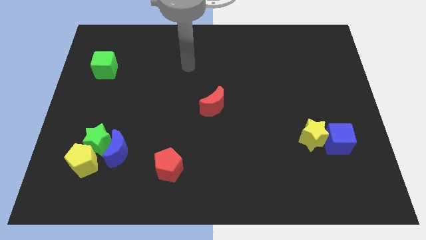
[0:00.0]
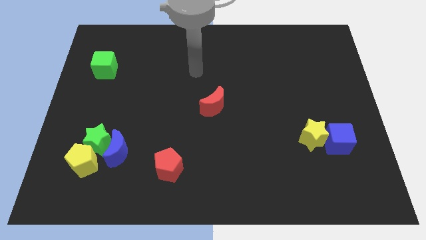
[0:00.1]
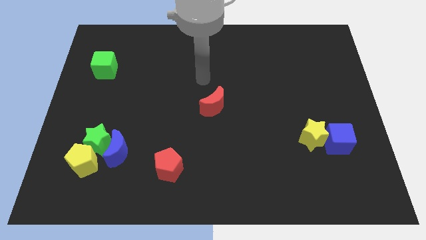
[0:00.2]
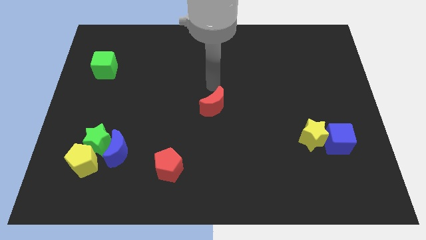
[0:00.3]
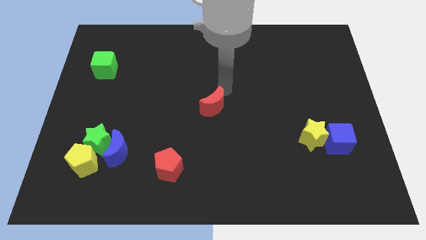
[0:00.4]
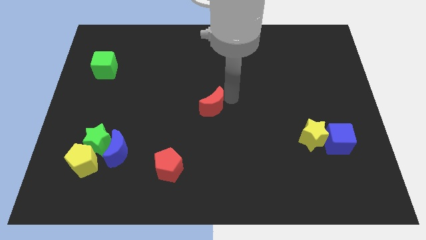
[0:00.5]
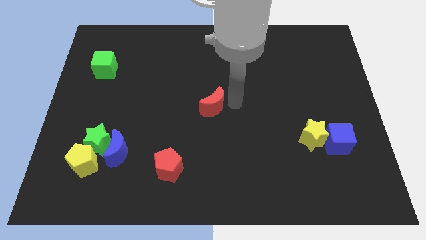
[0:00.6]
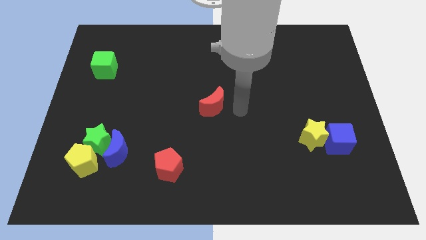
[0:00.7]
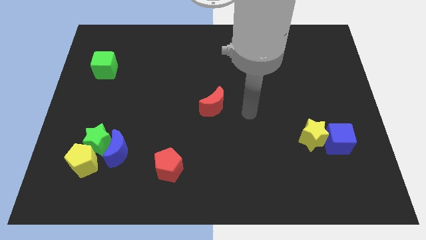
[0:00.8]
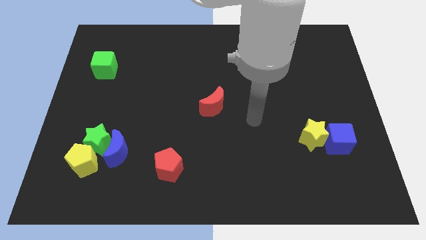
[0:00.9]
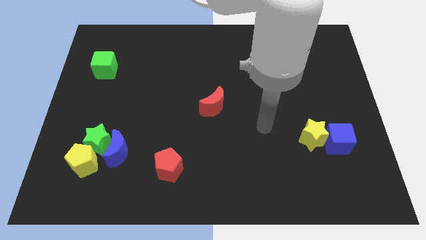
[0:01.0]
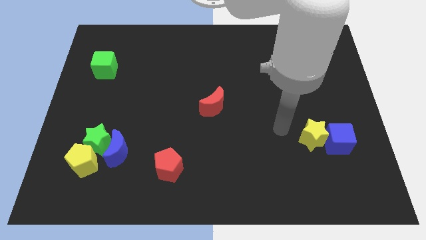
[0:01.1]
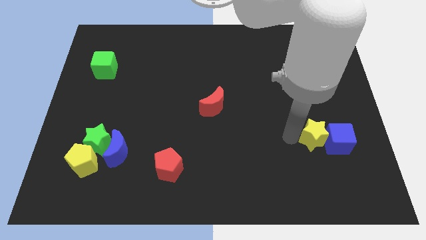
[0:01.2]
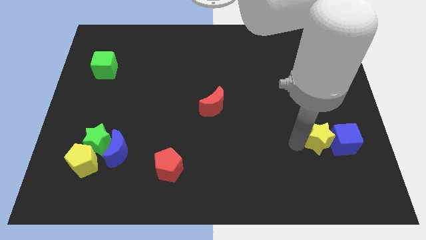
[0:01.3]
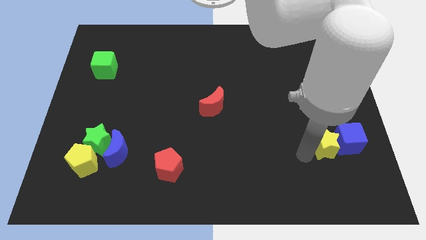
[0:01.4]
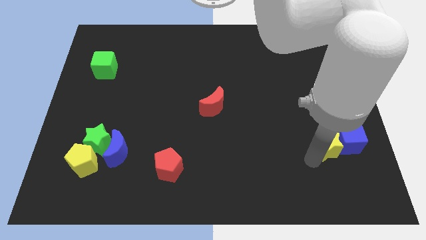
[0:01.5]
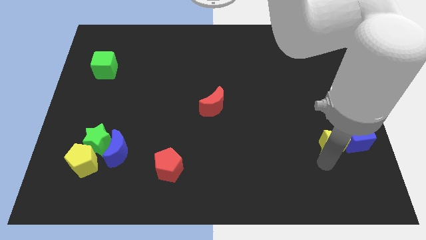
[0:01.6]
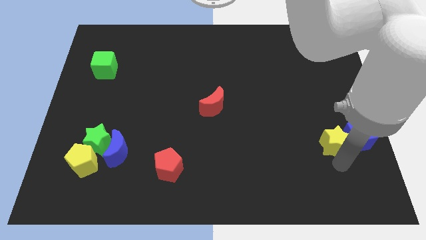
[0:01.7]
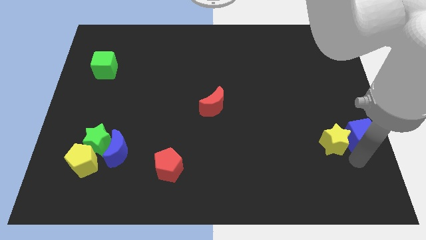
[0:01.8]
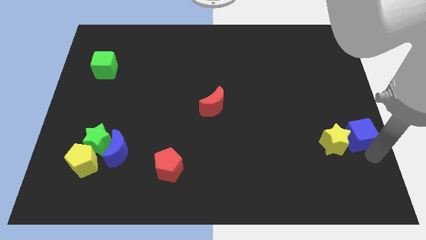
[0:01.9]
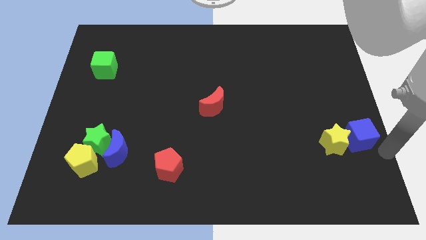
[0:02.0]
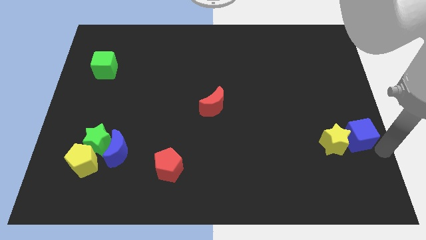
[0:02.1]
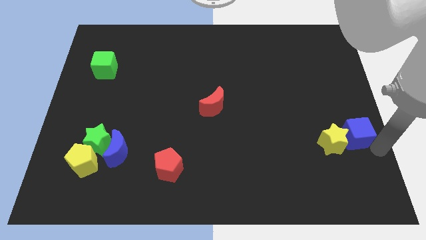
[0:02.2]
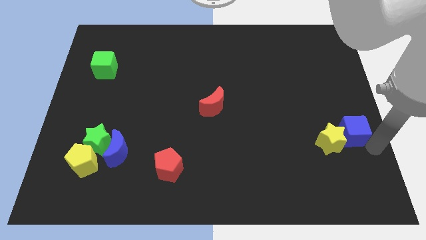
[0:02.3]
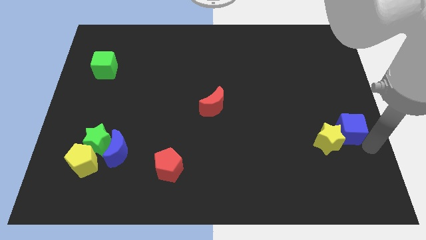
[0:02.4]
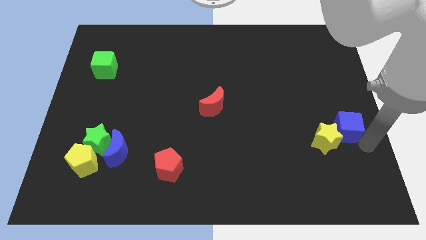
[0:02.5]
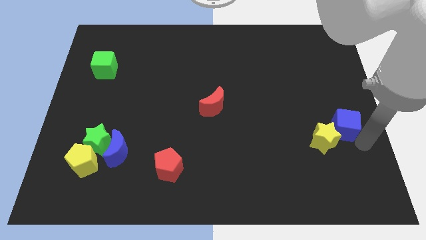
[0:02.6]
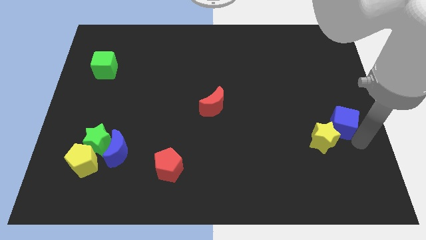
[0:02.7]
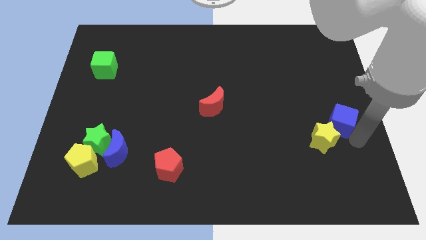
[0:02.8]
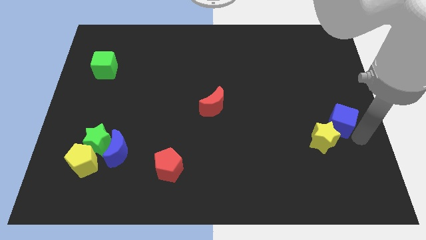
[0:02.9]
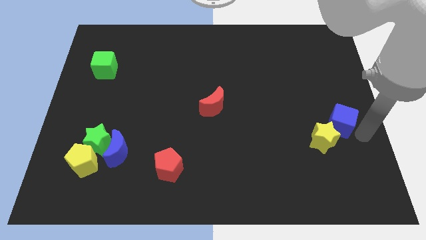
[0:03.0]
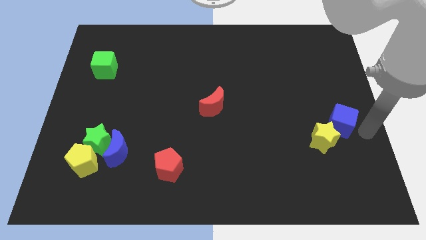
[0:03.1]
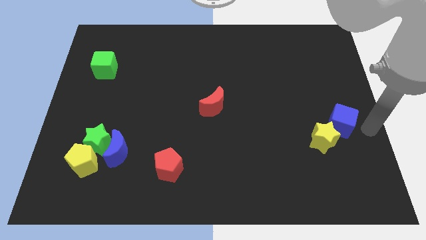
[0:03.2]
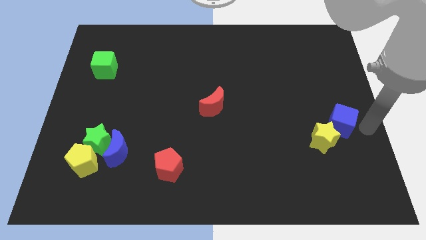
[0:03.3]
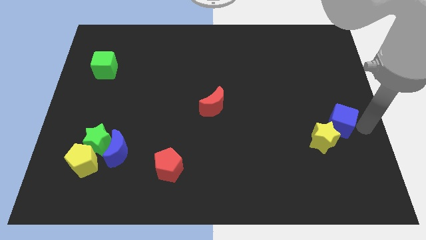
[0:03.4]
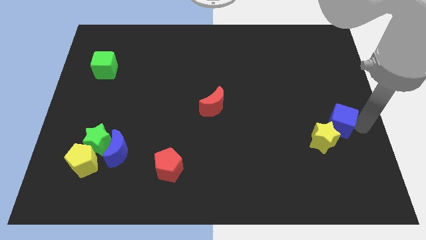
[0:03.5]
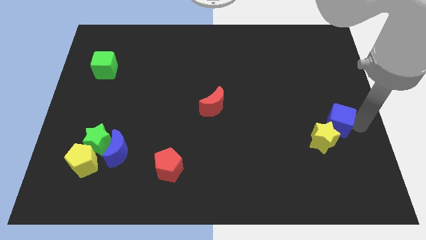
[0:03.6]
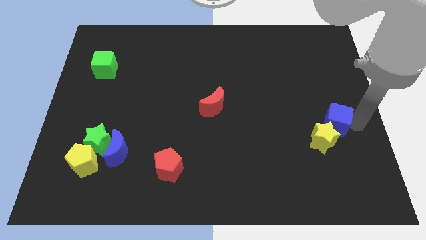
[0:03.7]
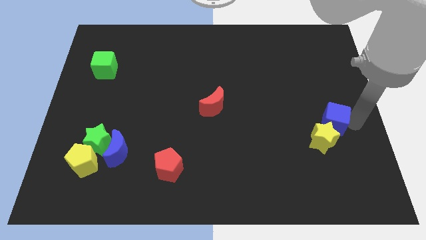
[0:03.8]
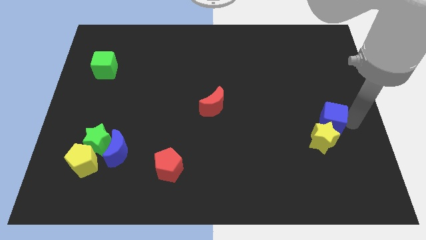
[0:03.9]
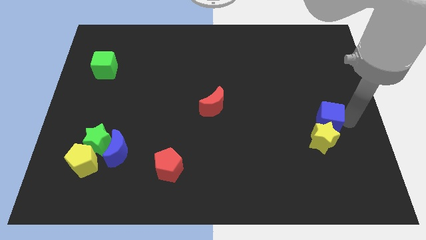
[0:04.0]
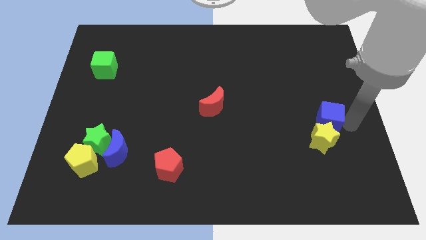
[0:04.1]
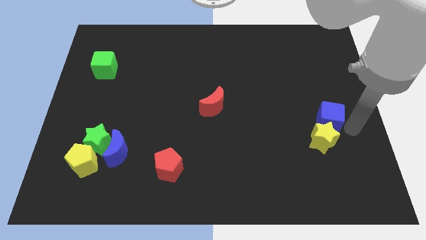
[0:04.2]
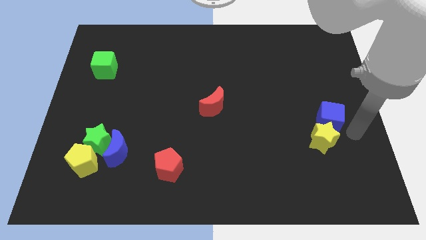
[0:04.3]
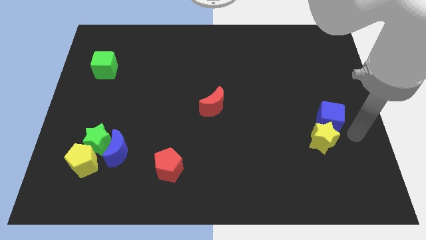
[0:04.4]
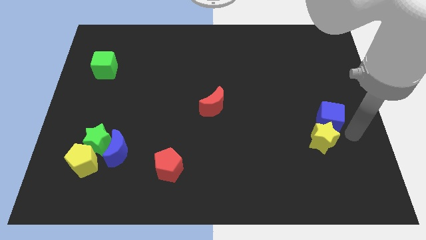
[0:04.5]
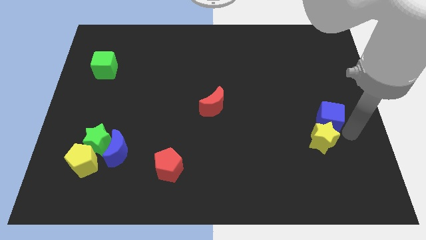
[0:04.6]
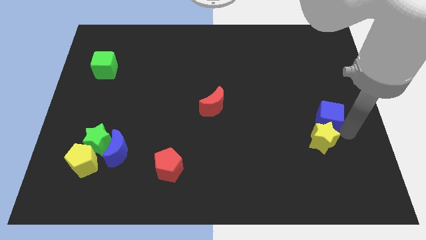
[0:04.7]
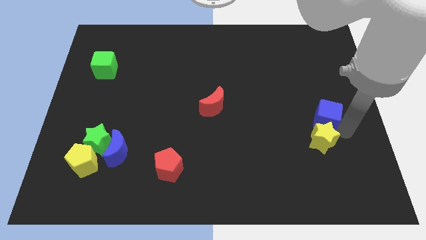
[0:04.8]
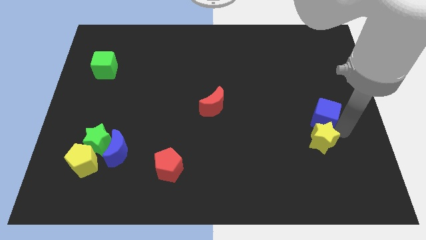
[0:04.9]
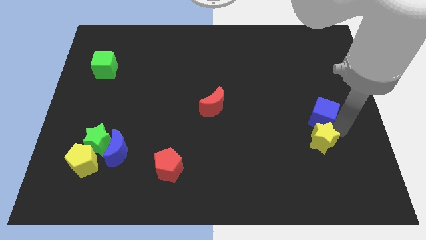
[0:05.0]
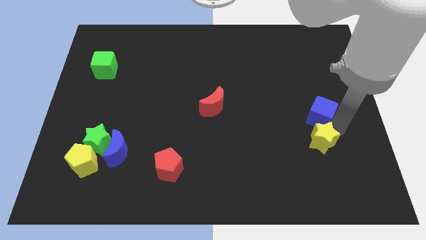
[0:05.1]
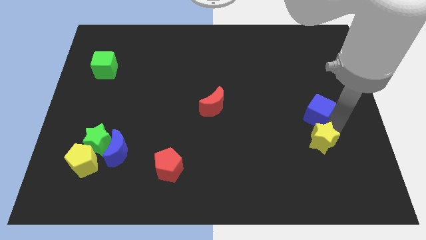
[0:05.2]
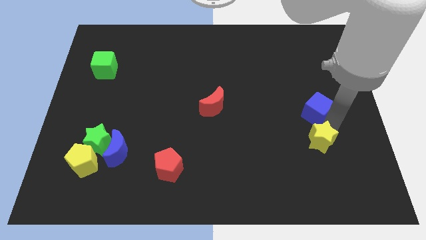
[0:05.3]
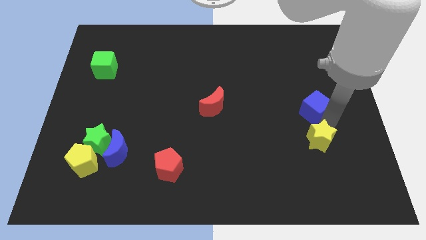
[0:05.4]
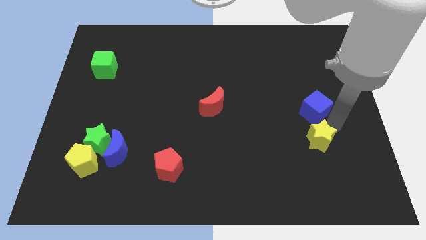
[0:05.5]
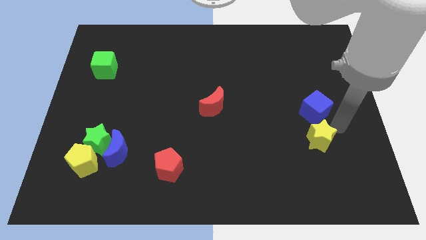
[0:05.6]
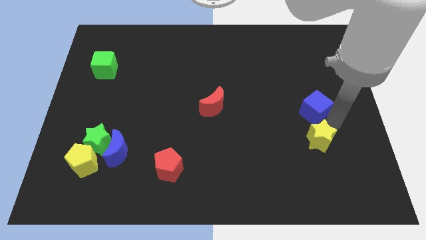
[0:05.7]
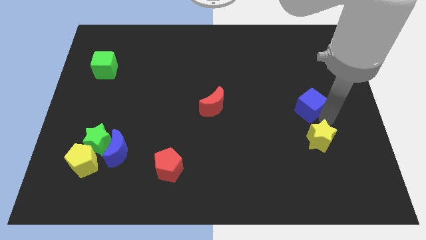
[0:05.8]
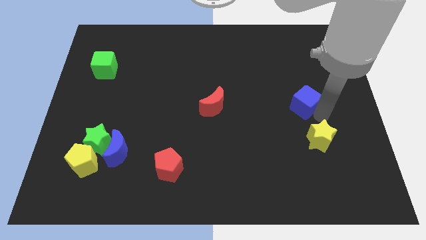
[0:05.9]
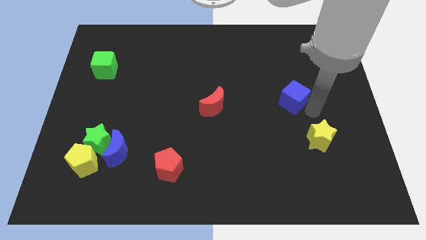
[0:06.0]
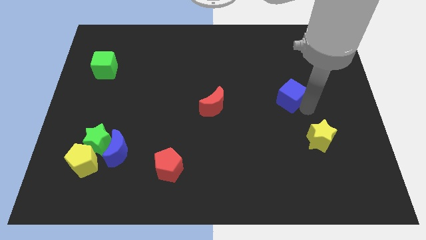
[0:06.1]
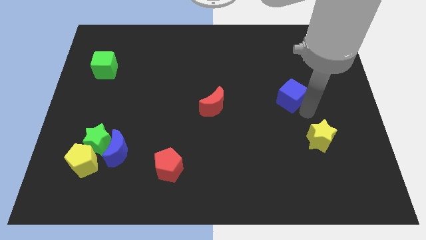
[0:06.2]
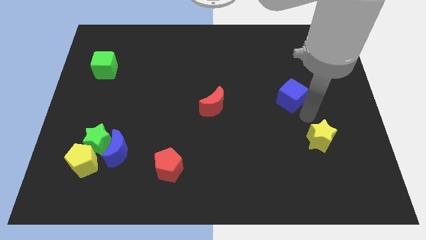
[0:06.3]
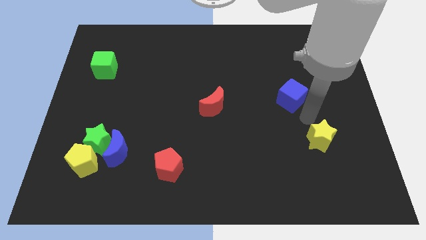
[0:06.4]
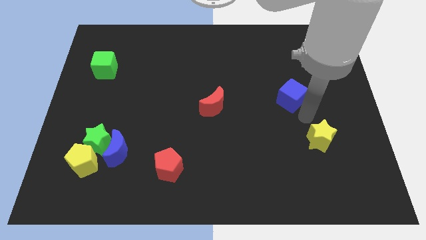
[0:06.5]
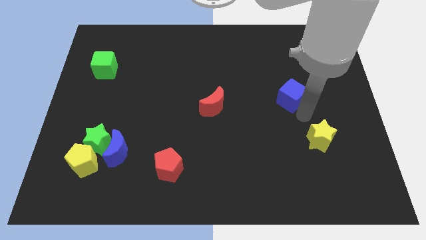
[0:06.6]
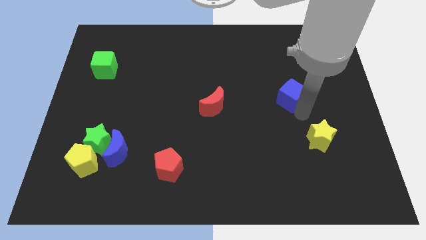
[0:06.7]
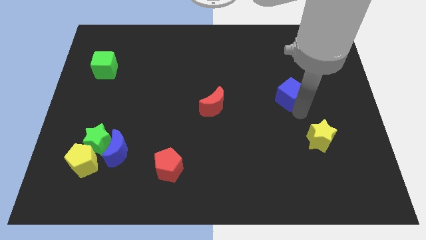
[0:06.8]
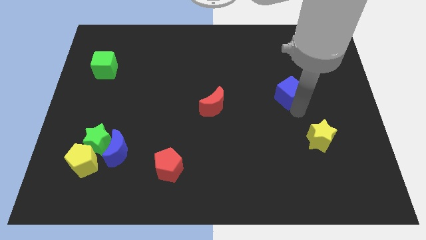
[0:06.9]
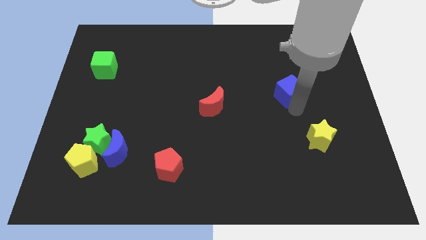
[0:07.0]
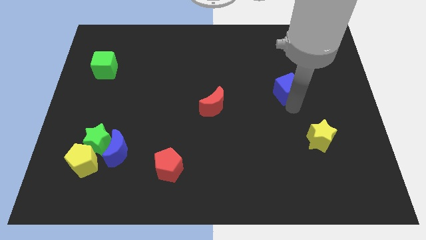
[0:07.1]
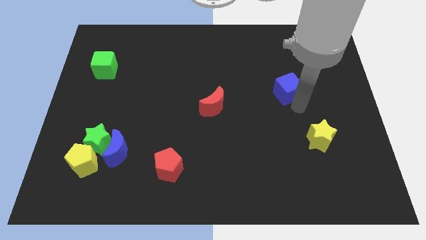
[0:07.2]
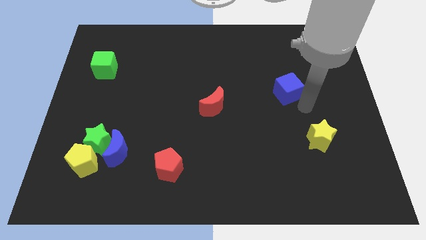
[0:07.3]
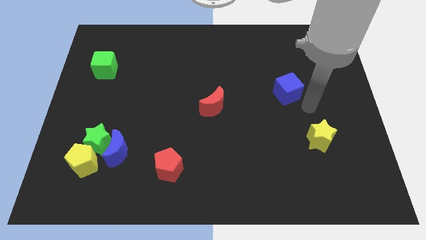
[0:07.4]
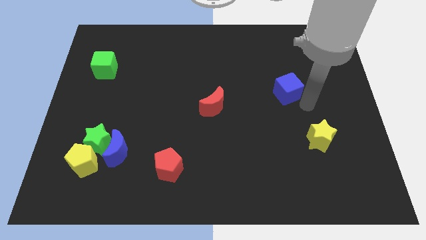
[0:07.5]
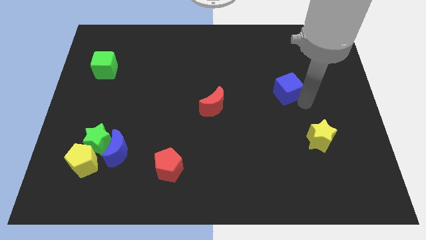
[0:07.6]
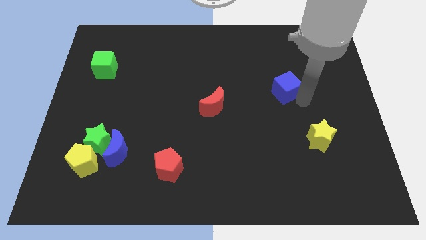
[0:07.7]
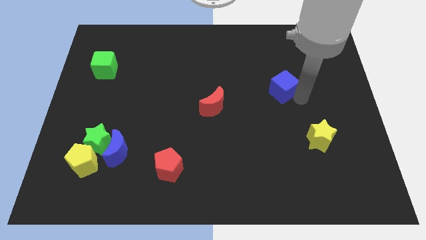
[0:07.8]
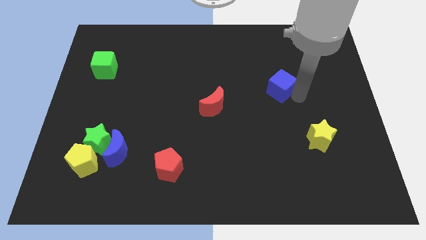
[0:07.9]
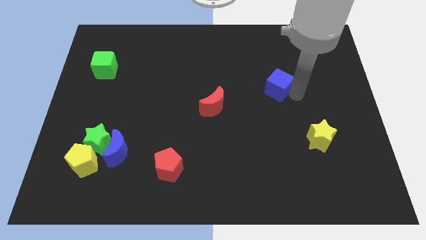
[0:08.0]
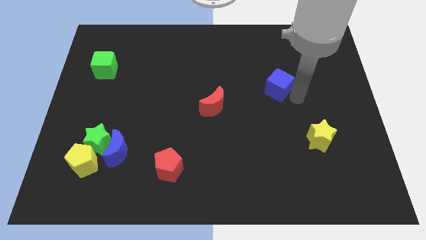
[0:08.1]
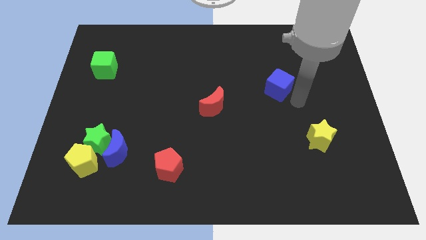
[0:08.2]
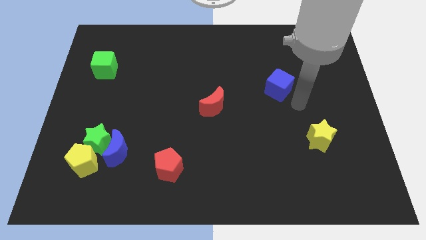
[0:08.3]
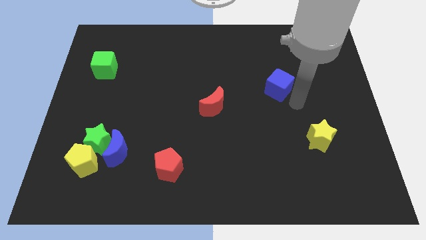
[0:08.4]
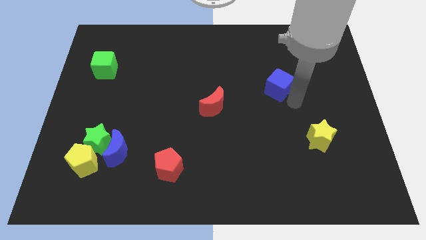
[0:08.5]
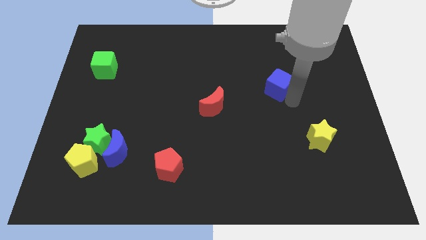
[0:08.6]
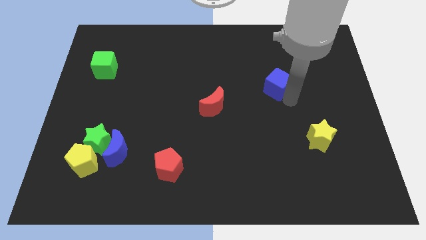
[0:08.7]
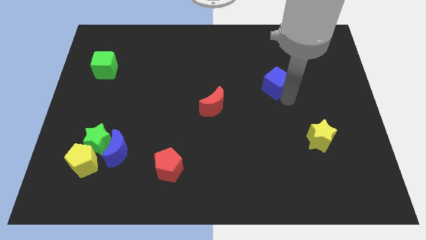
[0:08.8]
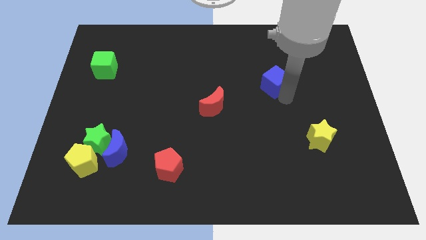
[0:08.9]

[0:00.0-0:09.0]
slide the blue cube upwards and then left
